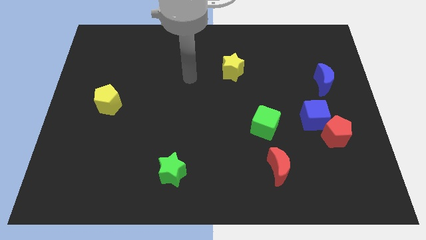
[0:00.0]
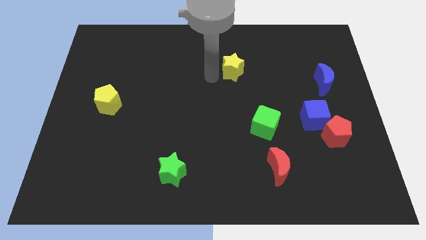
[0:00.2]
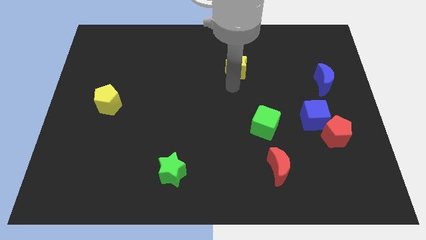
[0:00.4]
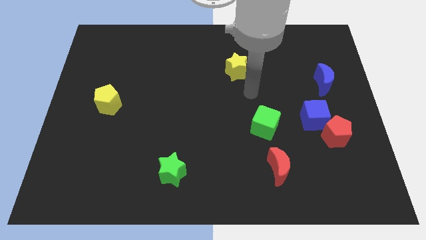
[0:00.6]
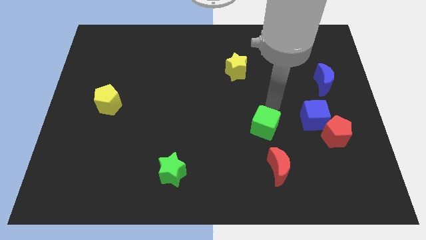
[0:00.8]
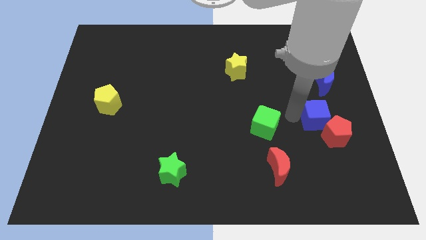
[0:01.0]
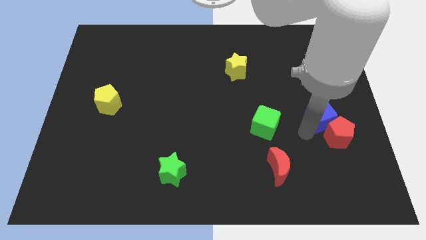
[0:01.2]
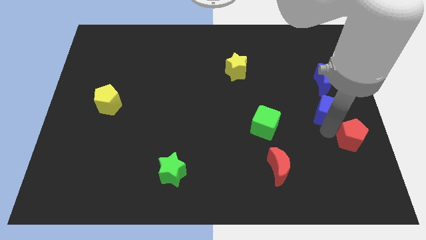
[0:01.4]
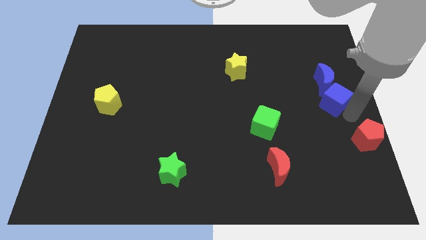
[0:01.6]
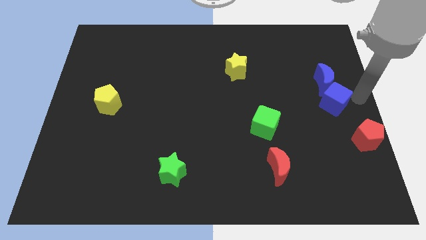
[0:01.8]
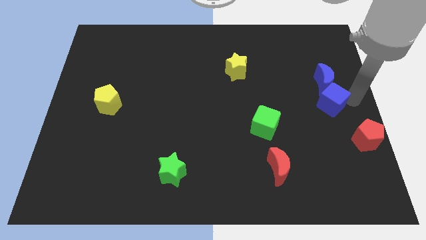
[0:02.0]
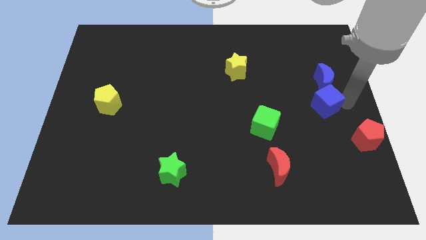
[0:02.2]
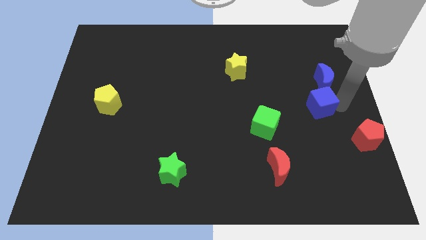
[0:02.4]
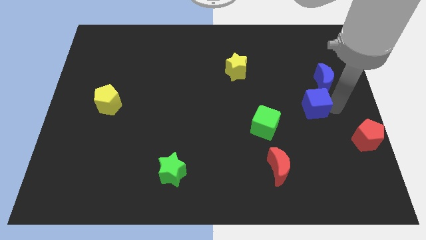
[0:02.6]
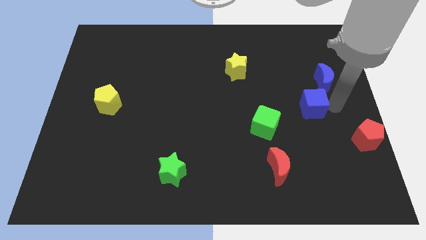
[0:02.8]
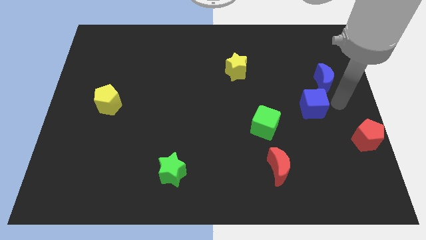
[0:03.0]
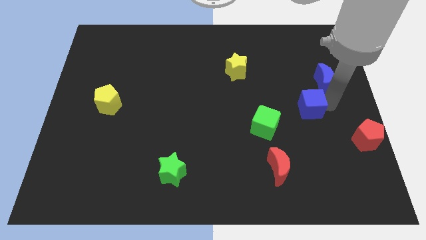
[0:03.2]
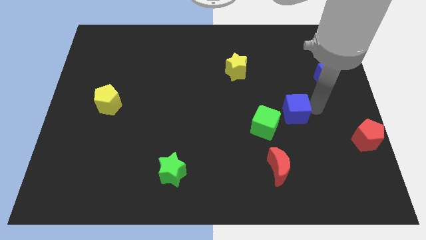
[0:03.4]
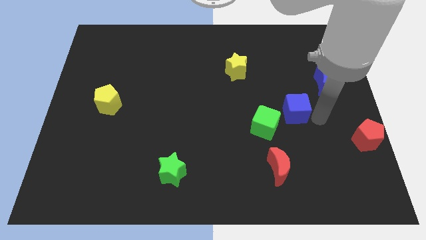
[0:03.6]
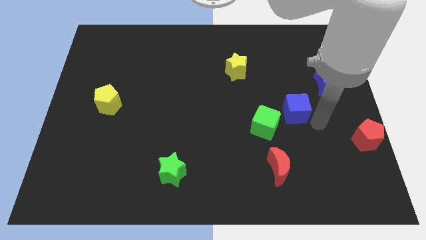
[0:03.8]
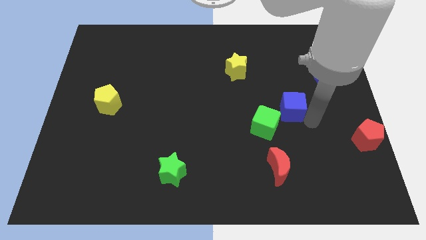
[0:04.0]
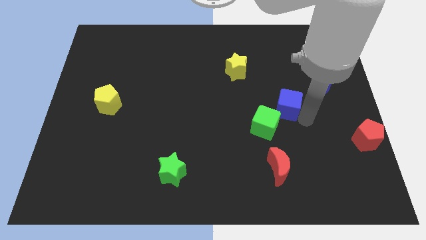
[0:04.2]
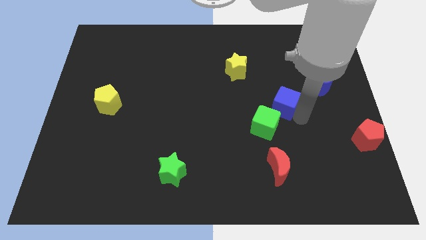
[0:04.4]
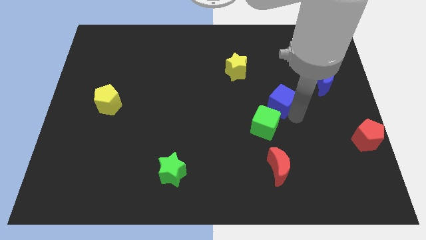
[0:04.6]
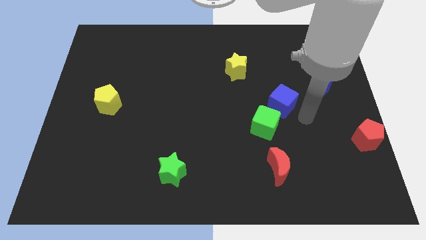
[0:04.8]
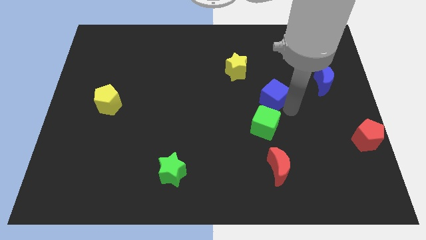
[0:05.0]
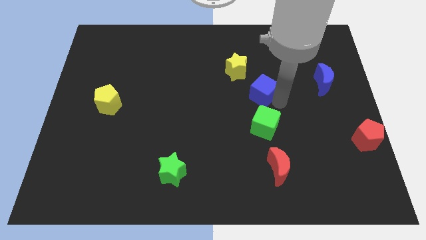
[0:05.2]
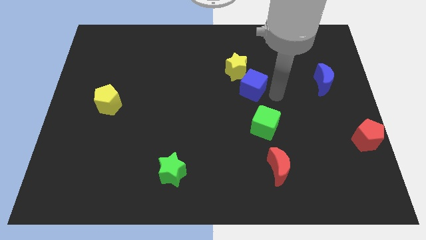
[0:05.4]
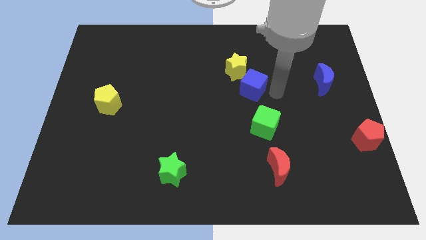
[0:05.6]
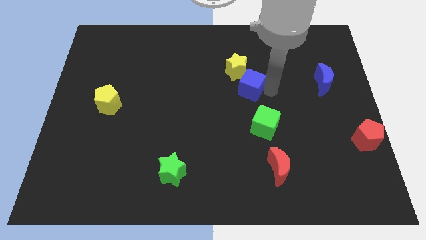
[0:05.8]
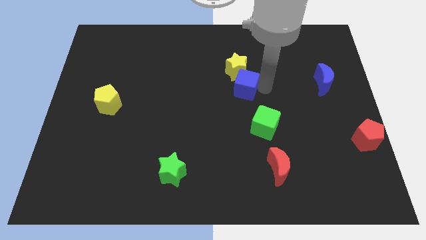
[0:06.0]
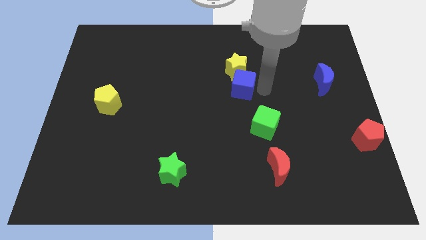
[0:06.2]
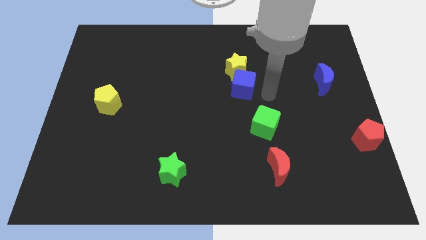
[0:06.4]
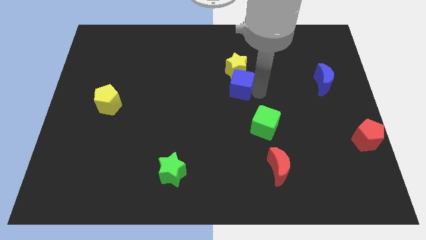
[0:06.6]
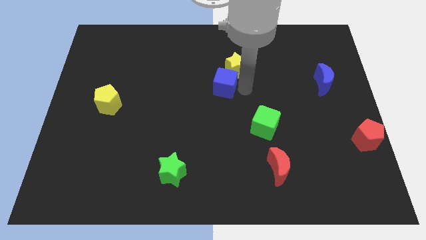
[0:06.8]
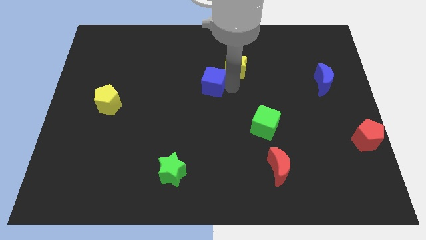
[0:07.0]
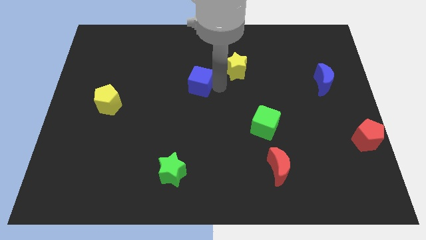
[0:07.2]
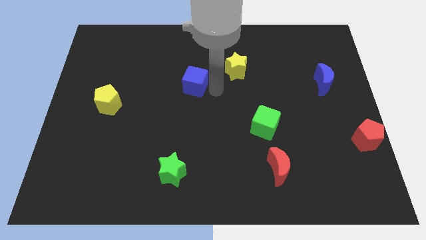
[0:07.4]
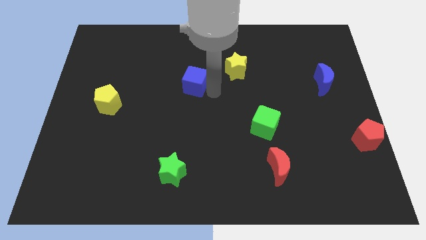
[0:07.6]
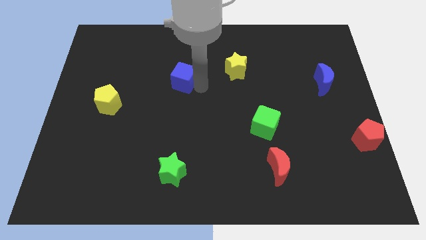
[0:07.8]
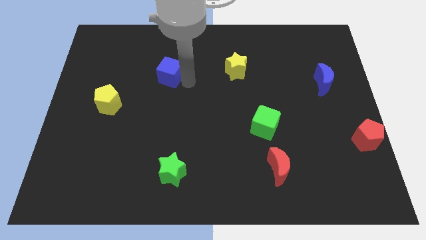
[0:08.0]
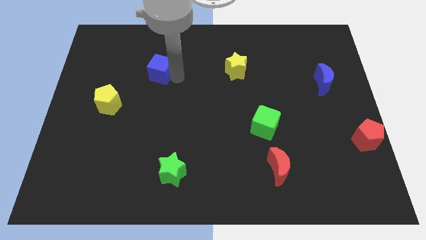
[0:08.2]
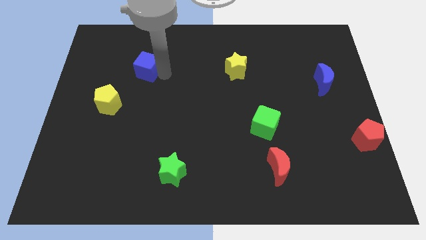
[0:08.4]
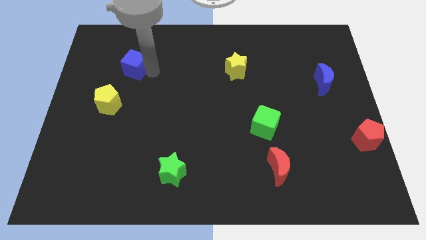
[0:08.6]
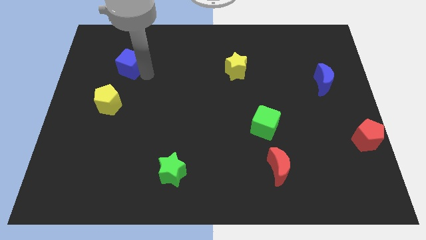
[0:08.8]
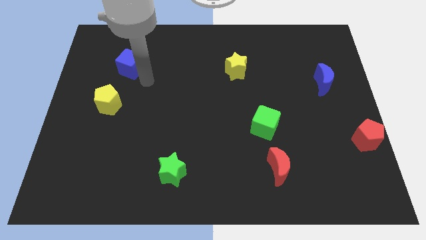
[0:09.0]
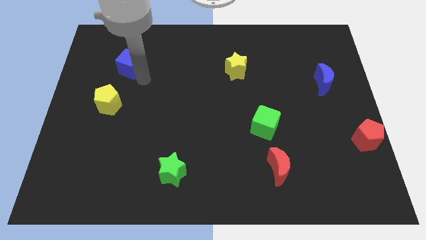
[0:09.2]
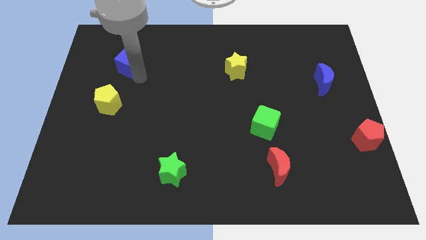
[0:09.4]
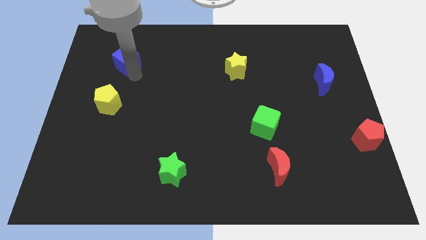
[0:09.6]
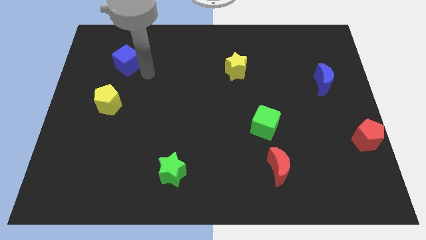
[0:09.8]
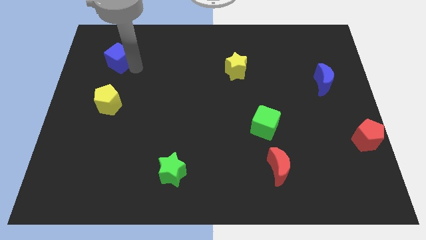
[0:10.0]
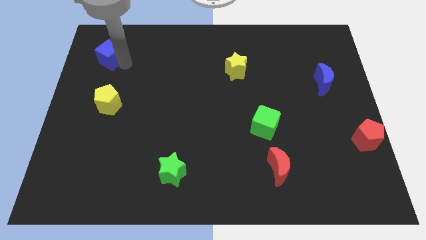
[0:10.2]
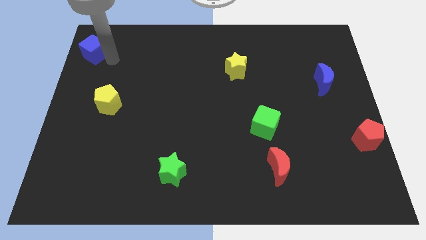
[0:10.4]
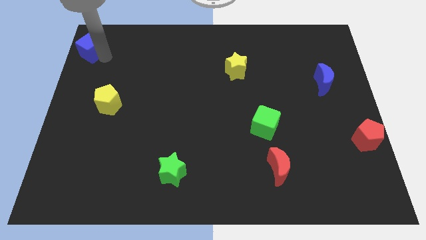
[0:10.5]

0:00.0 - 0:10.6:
move the blue cube to the top left of the board

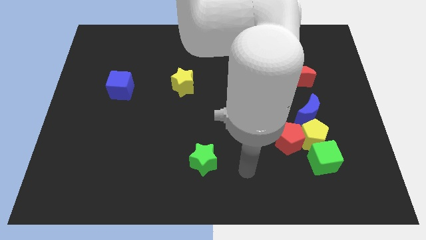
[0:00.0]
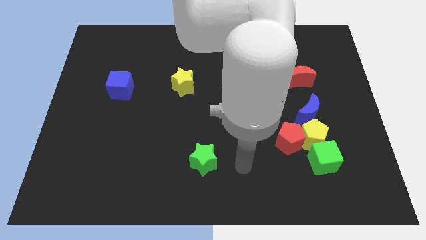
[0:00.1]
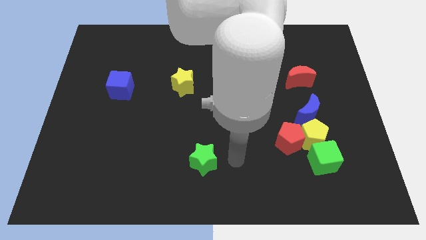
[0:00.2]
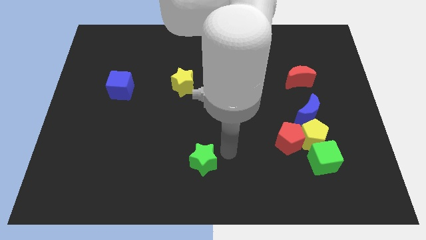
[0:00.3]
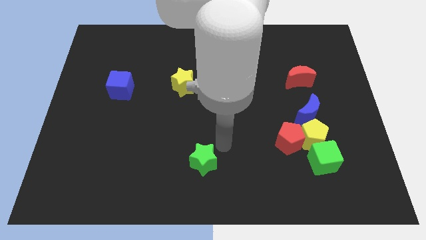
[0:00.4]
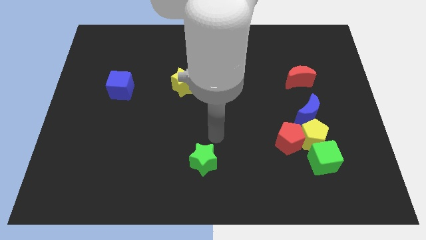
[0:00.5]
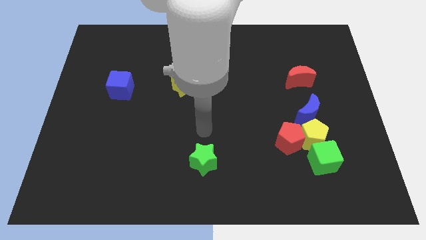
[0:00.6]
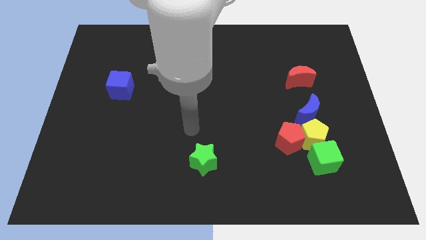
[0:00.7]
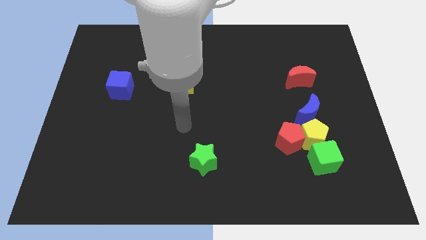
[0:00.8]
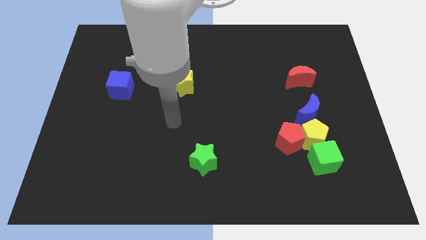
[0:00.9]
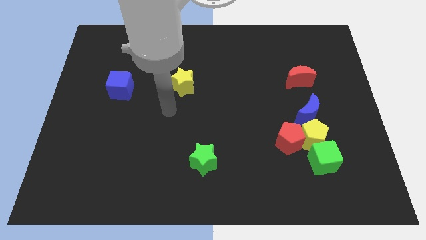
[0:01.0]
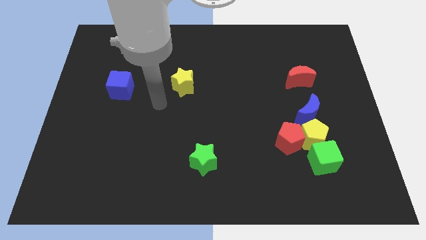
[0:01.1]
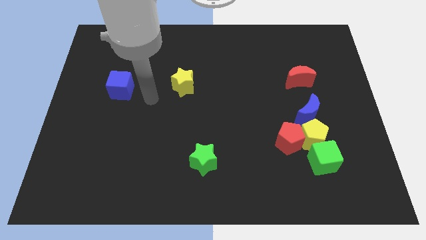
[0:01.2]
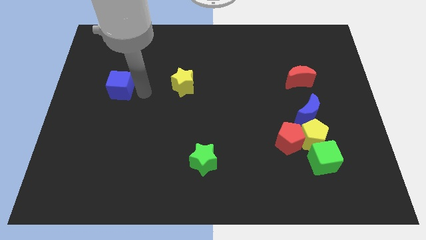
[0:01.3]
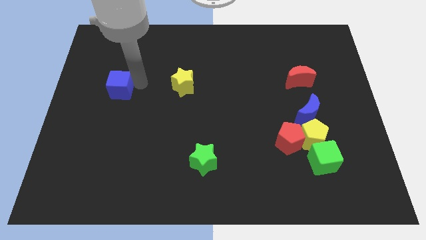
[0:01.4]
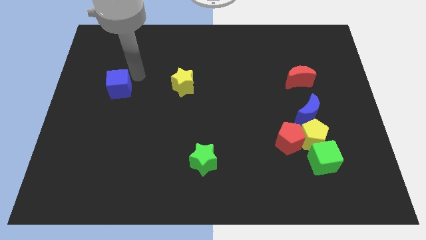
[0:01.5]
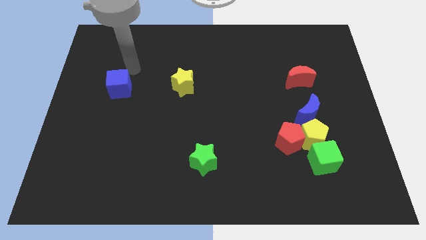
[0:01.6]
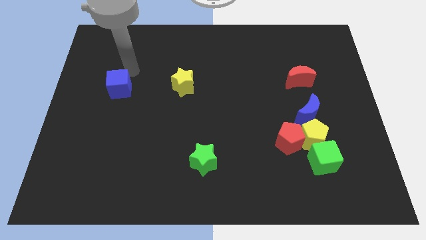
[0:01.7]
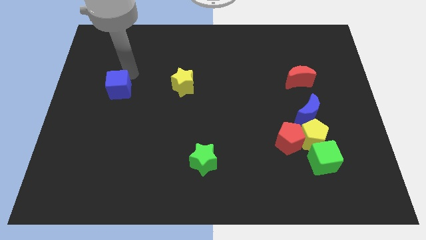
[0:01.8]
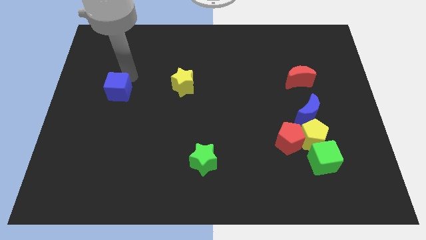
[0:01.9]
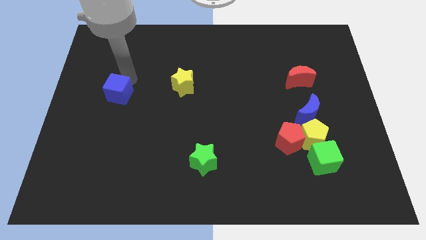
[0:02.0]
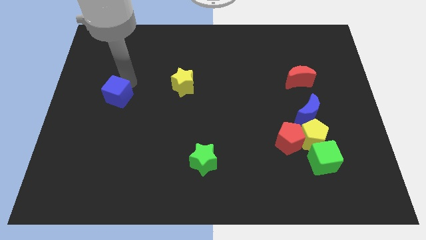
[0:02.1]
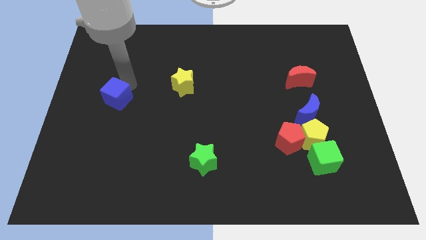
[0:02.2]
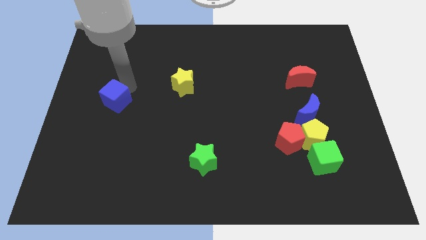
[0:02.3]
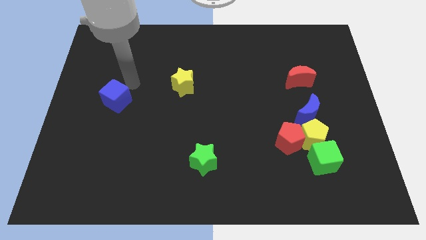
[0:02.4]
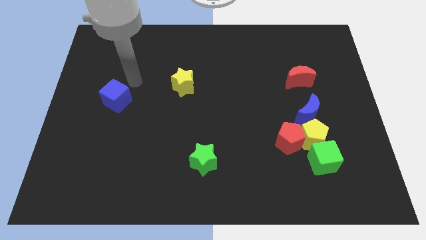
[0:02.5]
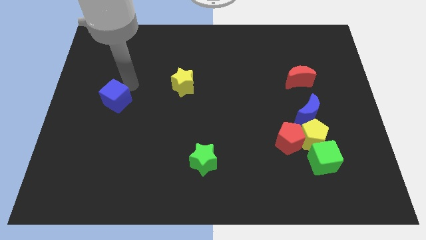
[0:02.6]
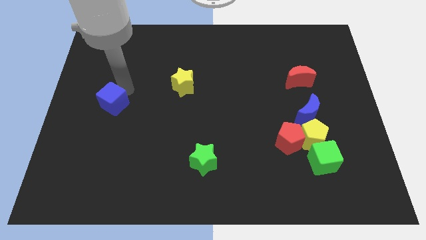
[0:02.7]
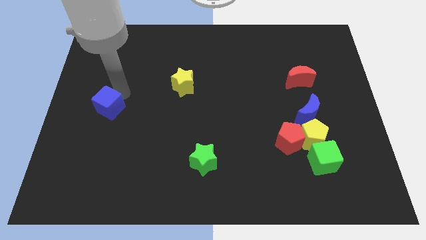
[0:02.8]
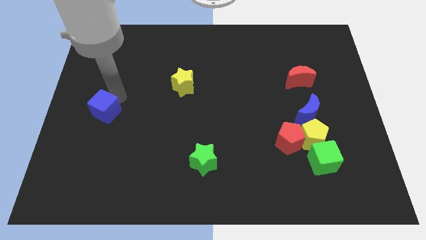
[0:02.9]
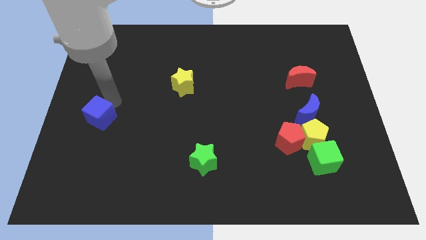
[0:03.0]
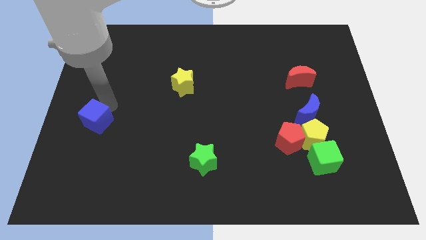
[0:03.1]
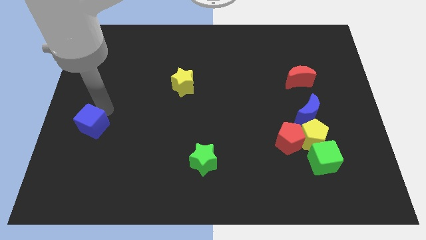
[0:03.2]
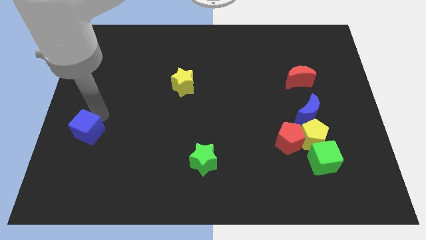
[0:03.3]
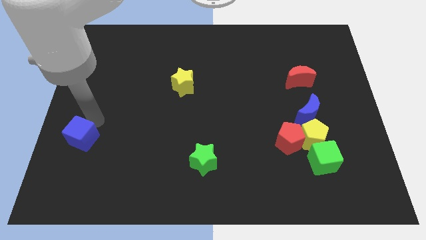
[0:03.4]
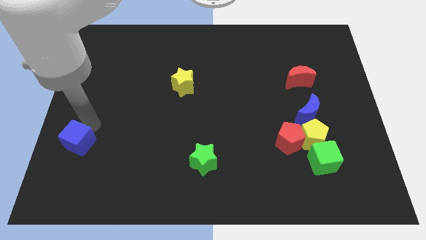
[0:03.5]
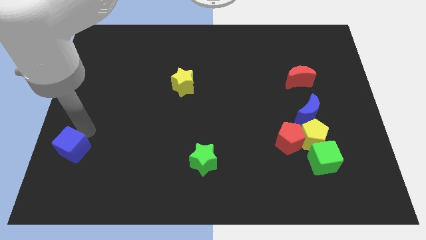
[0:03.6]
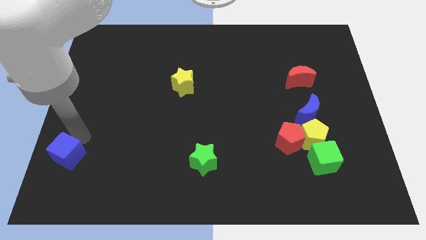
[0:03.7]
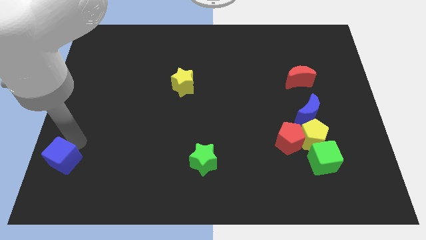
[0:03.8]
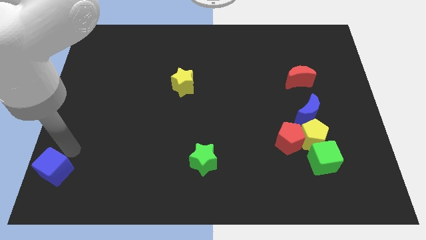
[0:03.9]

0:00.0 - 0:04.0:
slide the blue cube to the lower left corner
